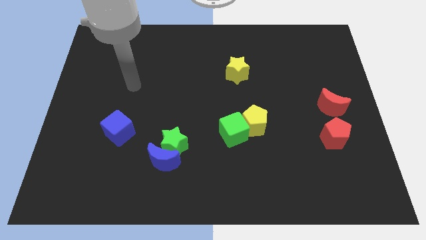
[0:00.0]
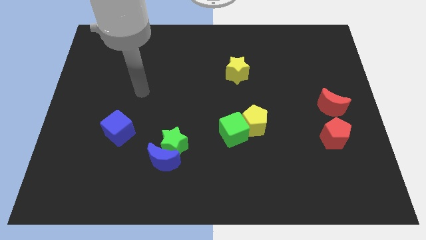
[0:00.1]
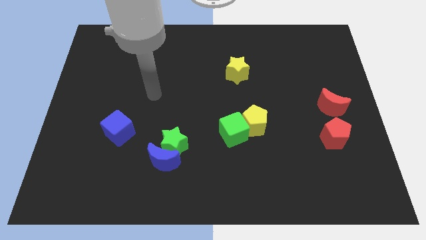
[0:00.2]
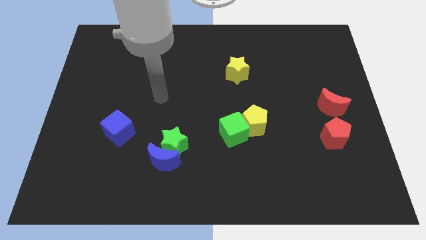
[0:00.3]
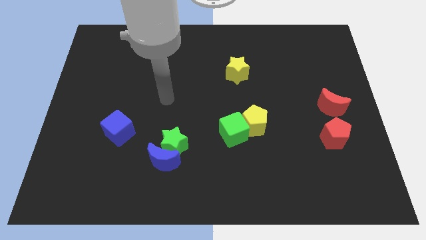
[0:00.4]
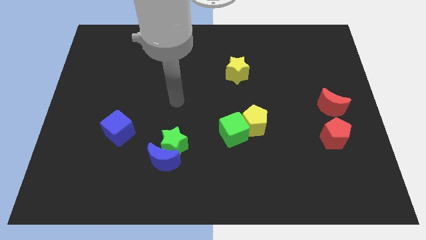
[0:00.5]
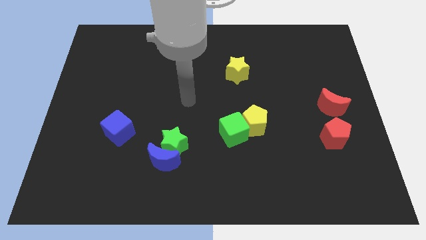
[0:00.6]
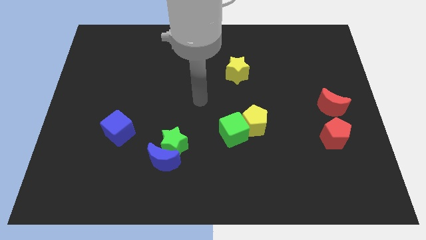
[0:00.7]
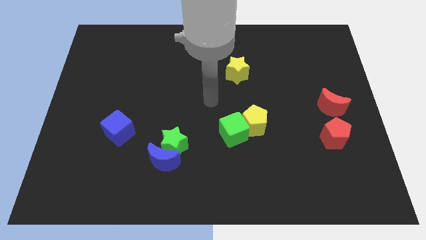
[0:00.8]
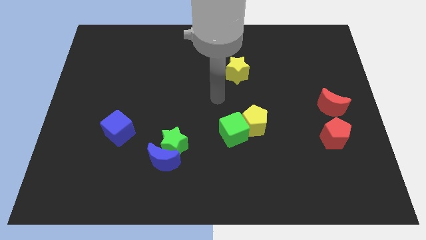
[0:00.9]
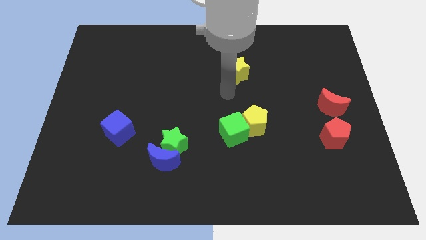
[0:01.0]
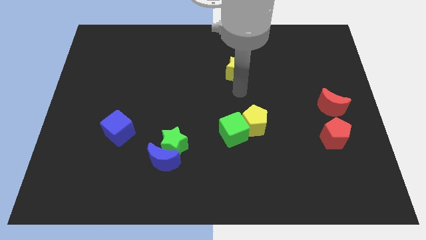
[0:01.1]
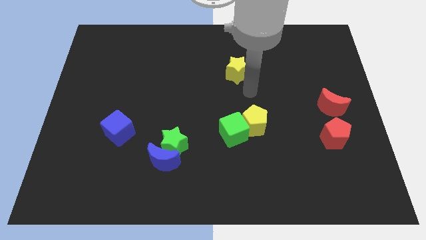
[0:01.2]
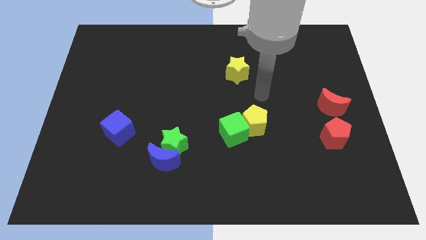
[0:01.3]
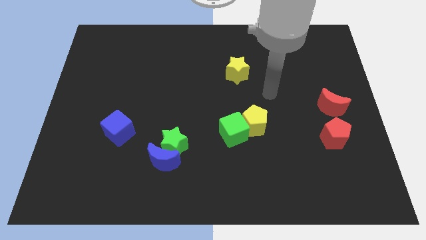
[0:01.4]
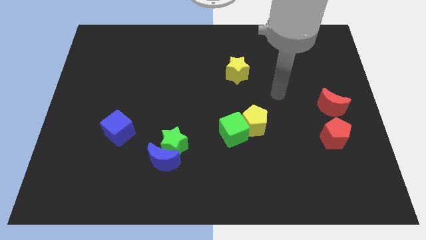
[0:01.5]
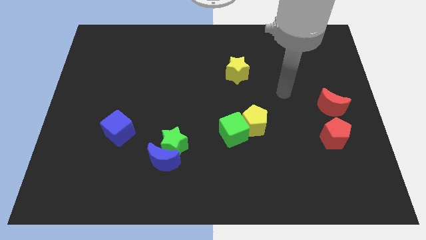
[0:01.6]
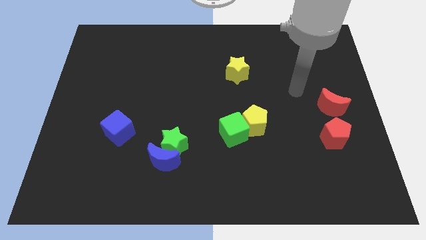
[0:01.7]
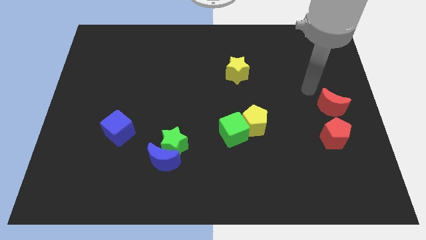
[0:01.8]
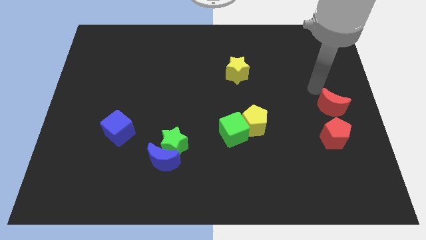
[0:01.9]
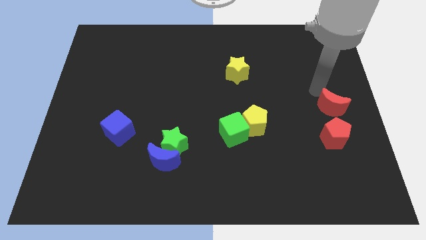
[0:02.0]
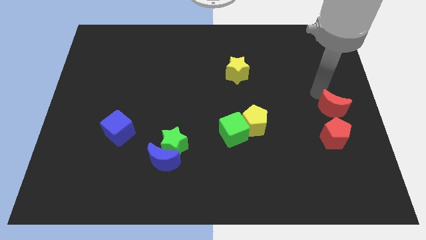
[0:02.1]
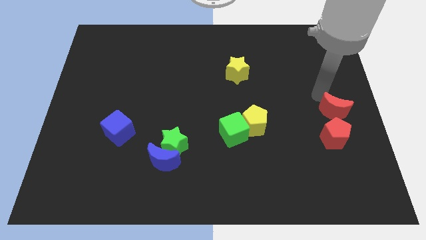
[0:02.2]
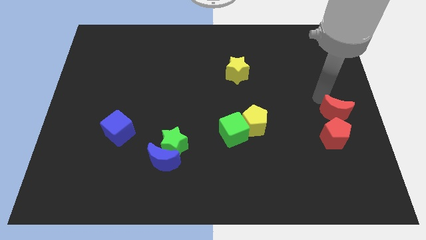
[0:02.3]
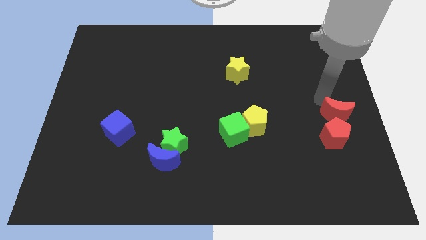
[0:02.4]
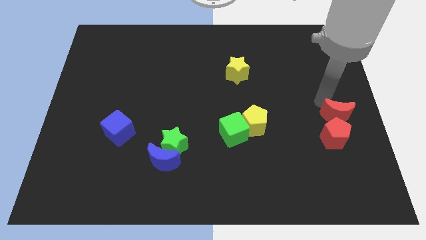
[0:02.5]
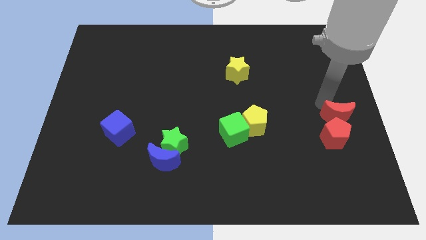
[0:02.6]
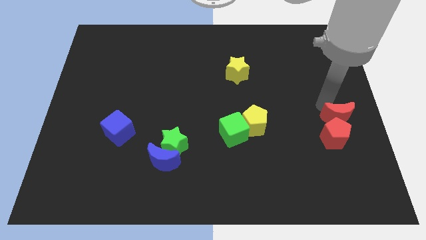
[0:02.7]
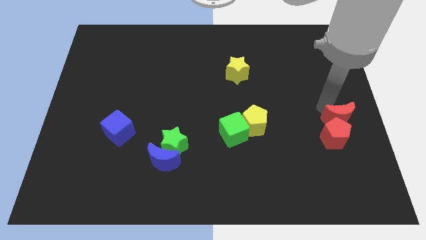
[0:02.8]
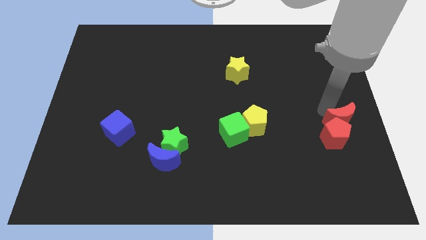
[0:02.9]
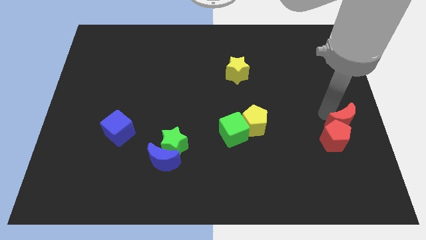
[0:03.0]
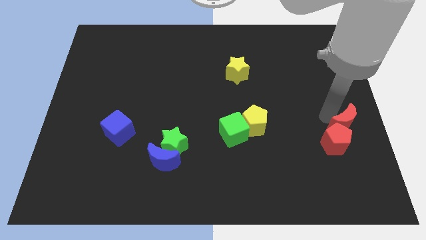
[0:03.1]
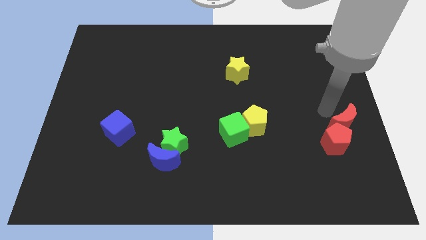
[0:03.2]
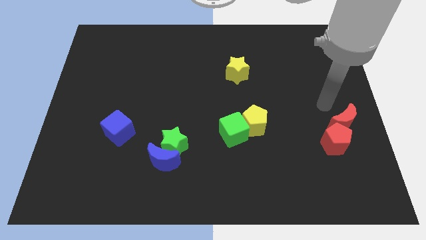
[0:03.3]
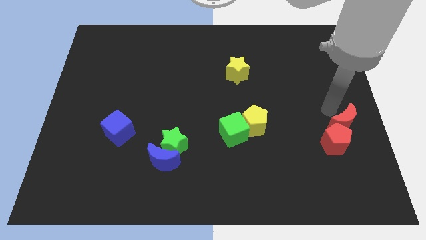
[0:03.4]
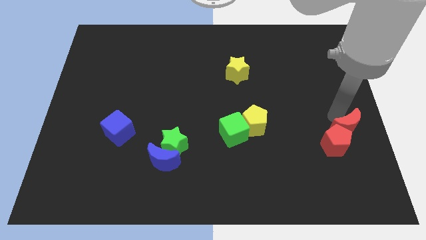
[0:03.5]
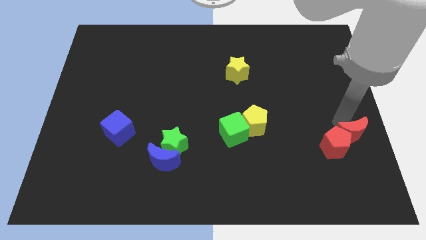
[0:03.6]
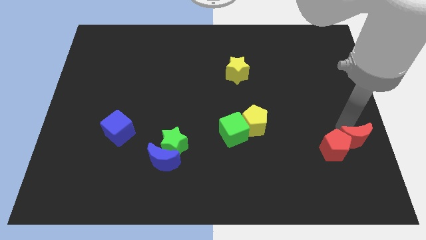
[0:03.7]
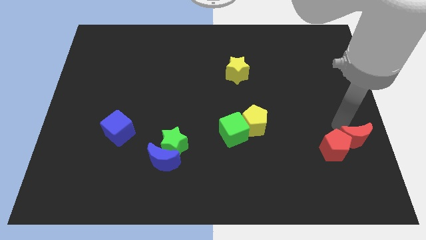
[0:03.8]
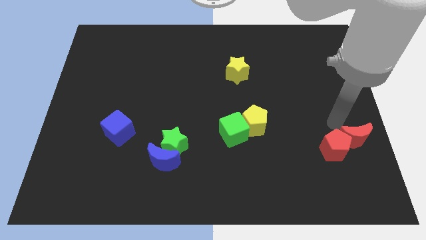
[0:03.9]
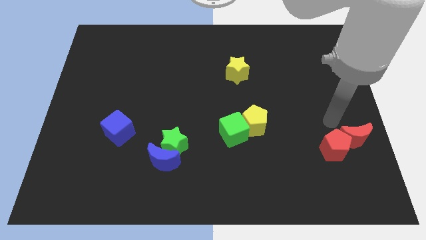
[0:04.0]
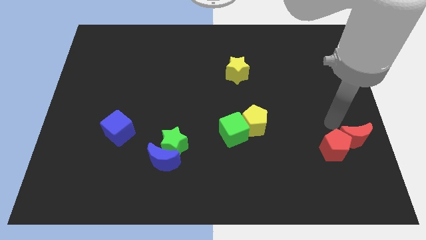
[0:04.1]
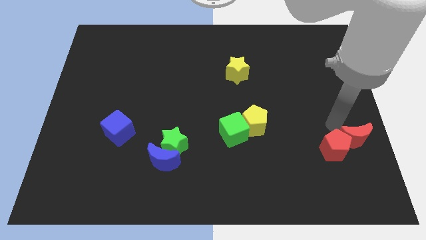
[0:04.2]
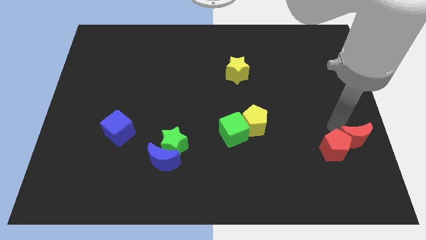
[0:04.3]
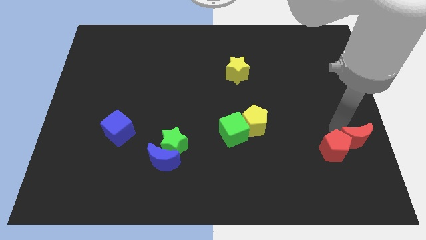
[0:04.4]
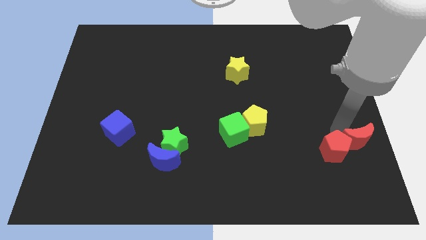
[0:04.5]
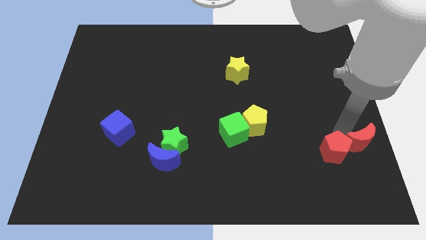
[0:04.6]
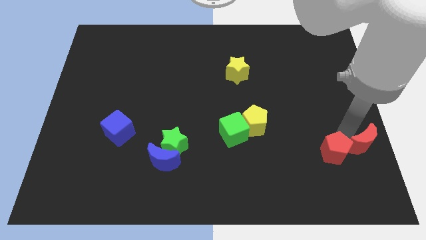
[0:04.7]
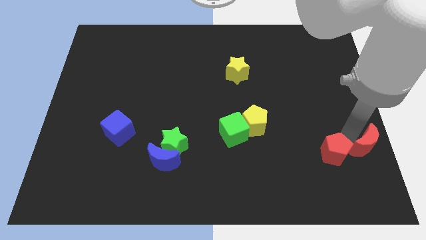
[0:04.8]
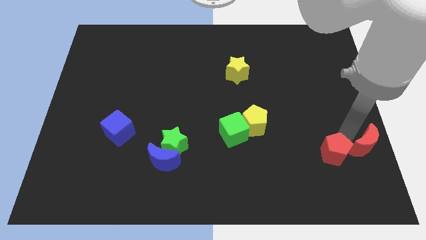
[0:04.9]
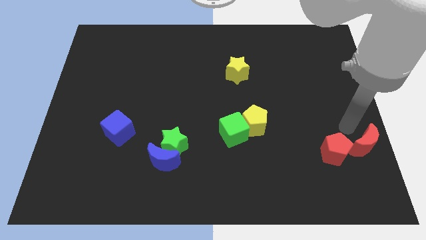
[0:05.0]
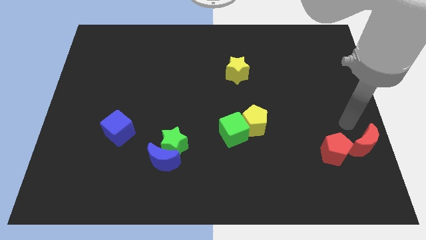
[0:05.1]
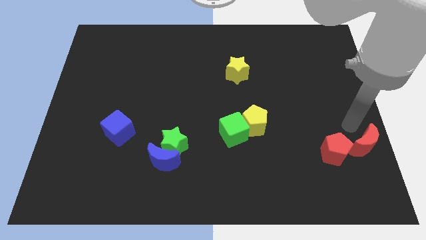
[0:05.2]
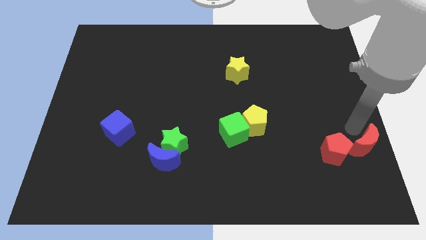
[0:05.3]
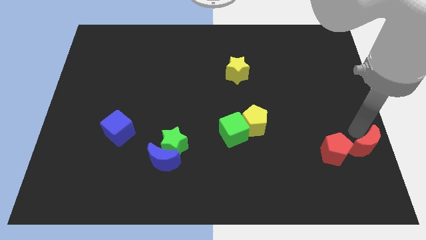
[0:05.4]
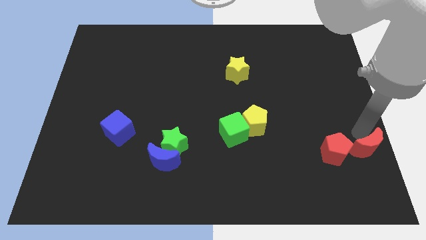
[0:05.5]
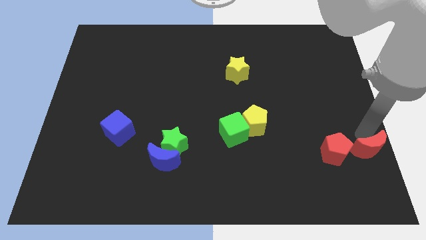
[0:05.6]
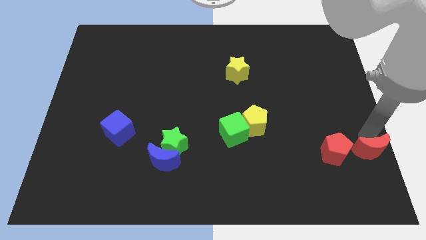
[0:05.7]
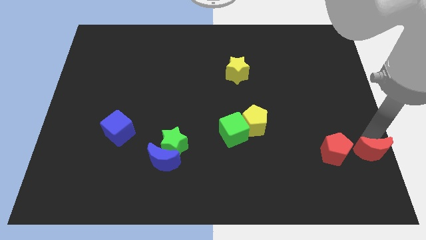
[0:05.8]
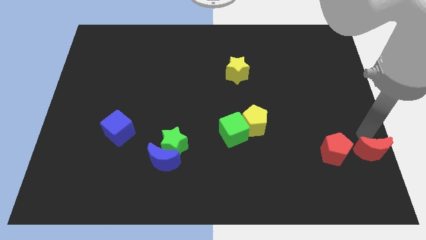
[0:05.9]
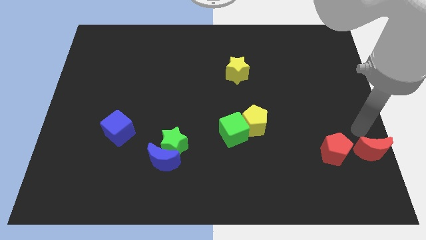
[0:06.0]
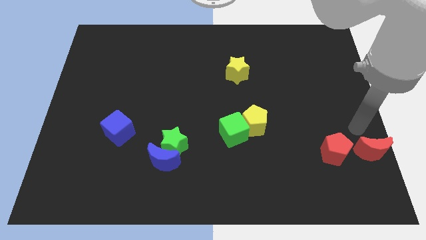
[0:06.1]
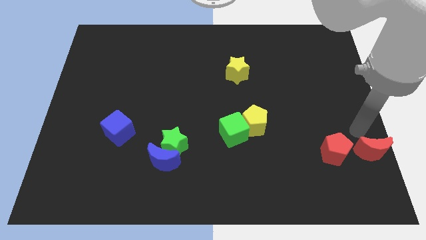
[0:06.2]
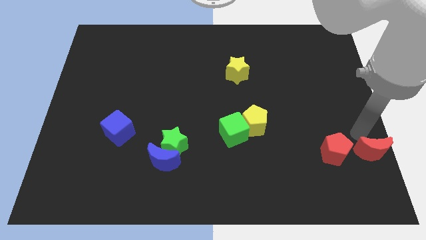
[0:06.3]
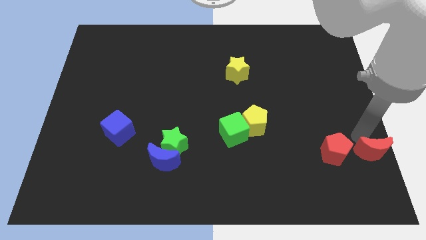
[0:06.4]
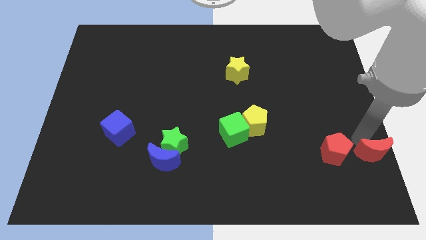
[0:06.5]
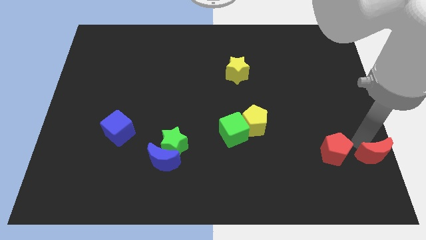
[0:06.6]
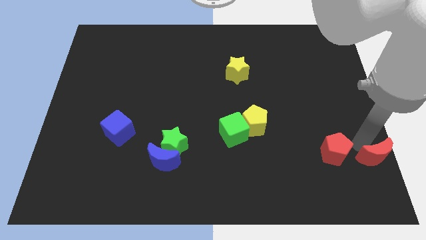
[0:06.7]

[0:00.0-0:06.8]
move the red moon to the bottom right of the board
